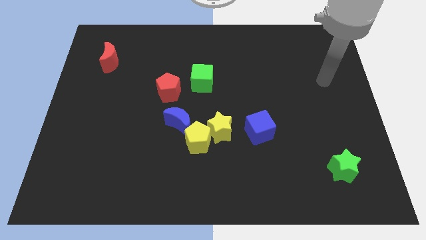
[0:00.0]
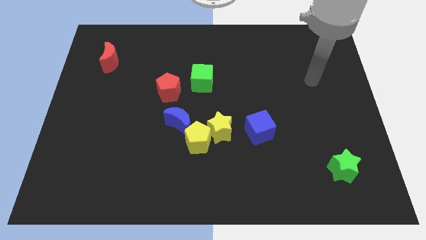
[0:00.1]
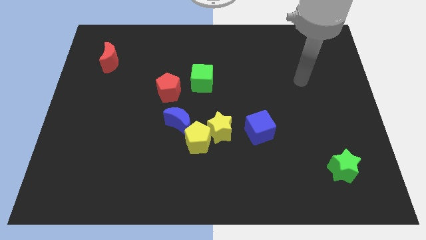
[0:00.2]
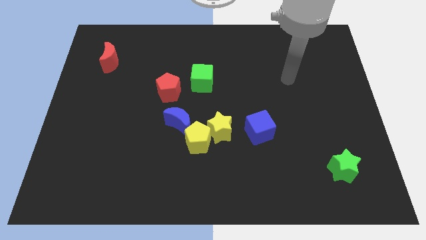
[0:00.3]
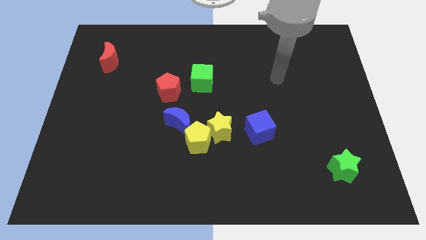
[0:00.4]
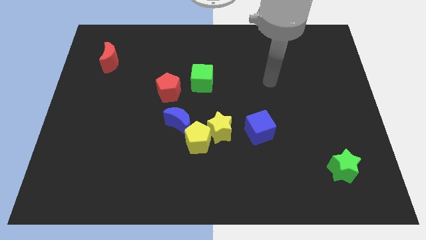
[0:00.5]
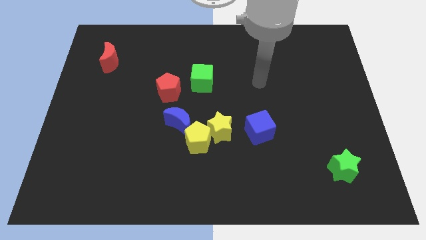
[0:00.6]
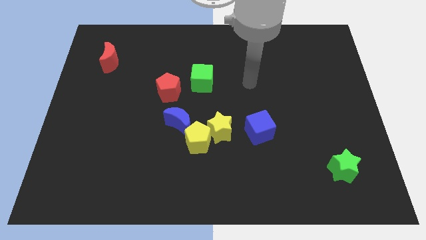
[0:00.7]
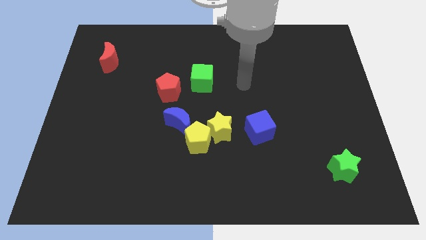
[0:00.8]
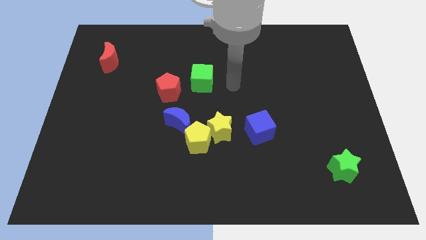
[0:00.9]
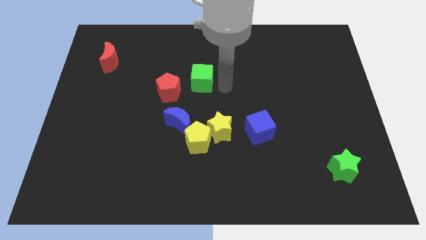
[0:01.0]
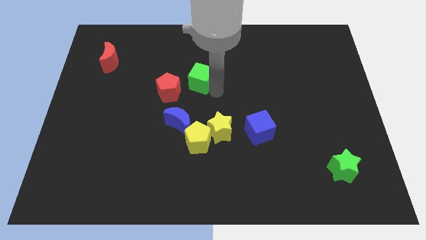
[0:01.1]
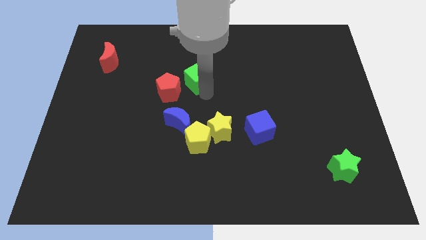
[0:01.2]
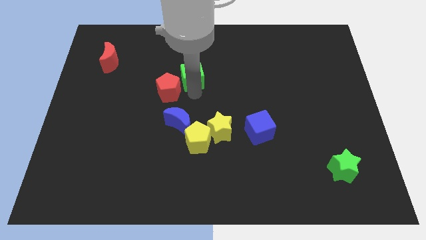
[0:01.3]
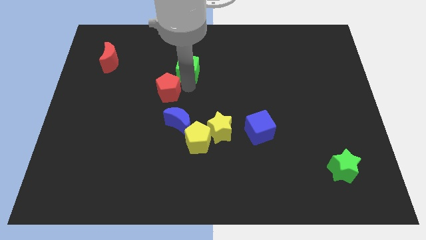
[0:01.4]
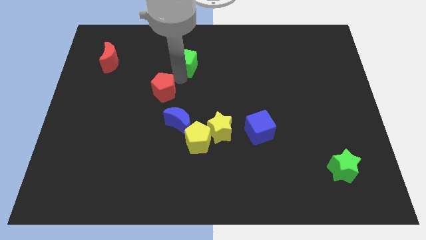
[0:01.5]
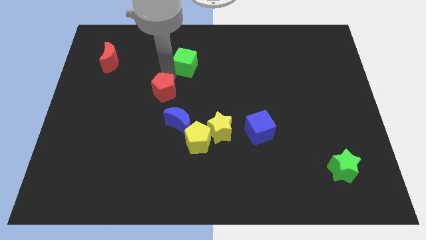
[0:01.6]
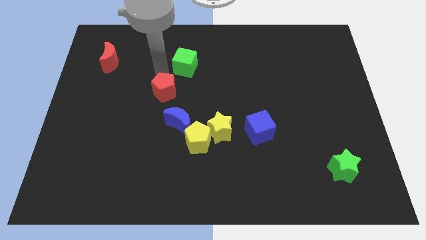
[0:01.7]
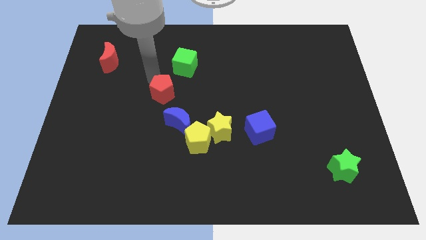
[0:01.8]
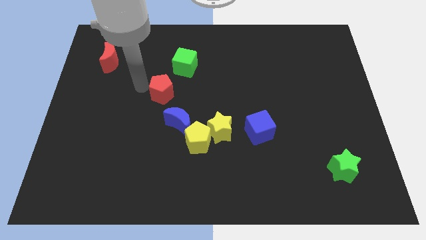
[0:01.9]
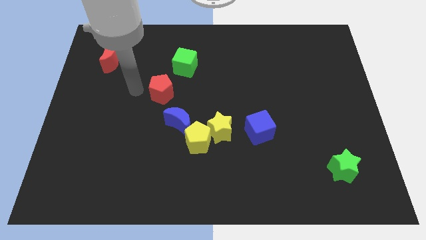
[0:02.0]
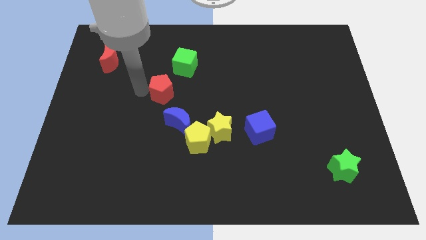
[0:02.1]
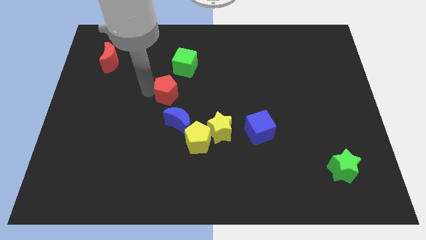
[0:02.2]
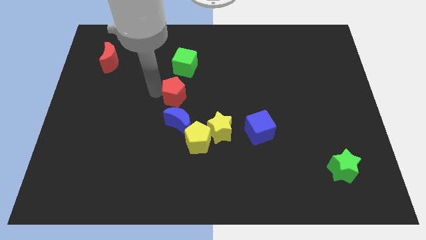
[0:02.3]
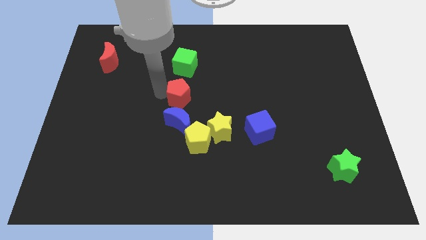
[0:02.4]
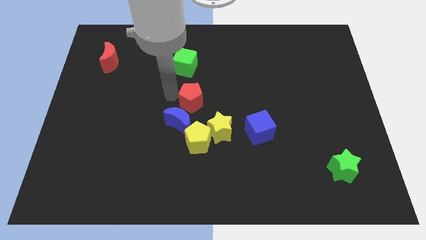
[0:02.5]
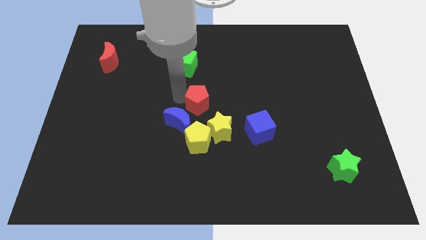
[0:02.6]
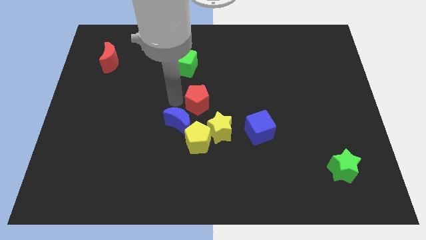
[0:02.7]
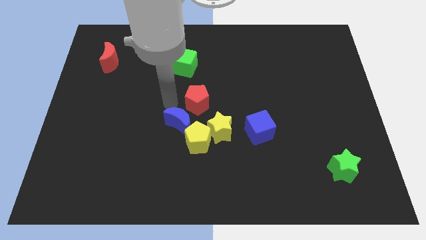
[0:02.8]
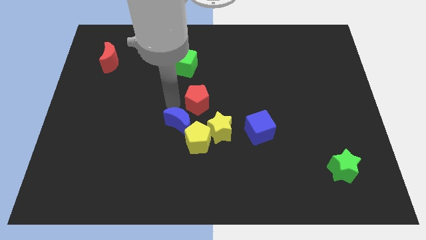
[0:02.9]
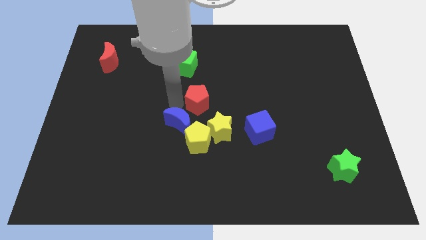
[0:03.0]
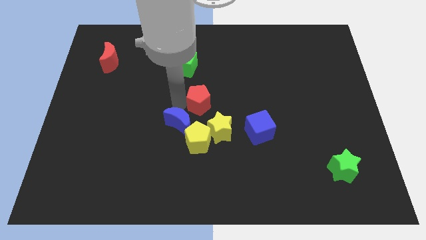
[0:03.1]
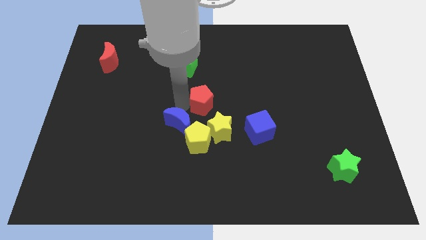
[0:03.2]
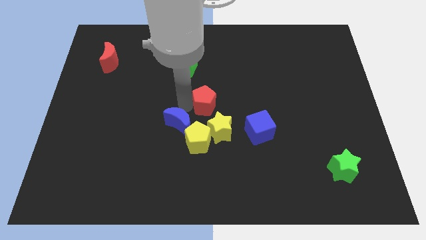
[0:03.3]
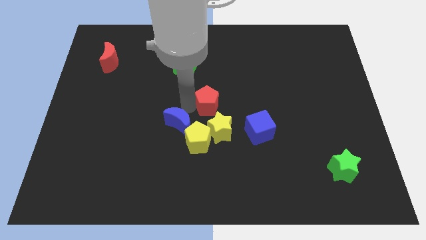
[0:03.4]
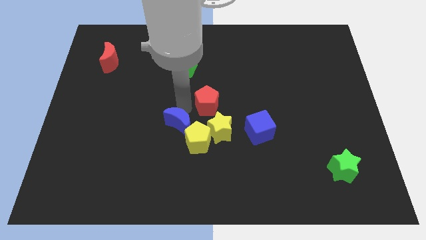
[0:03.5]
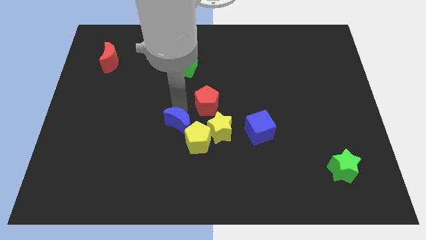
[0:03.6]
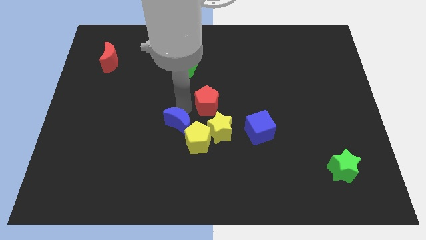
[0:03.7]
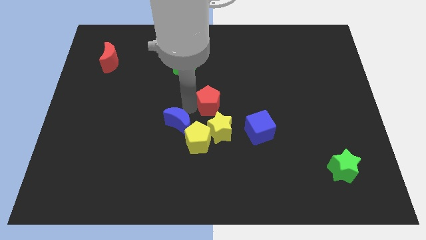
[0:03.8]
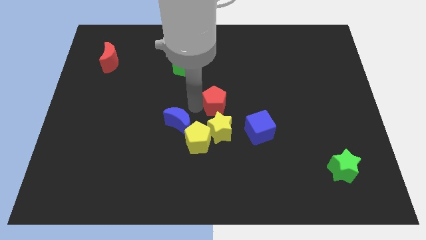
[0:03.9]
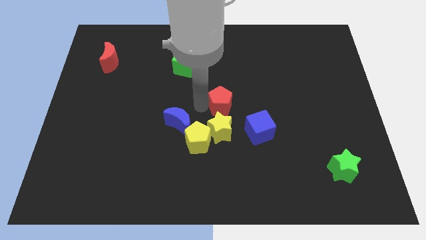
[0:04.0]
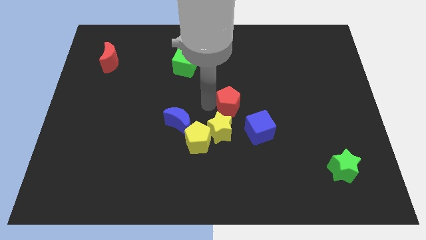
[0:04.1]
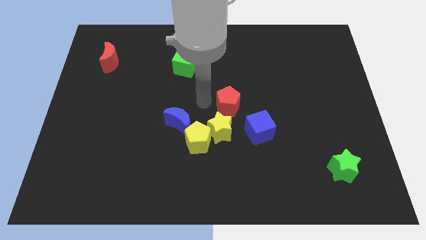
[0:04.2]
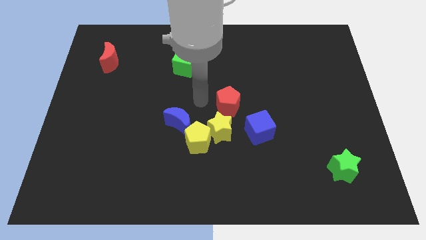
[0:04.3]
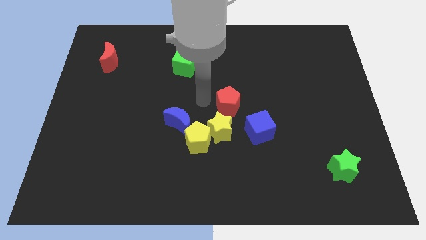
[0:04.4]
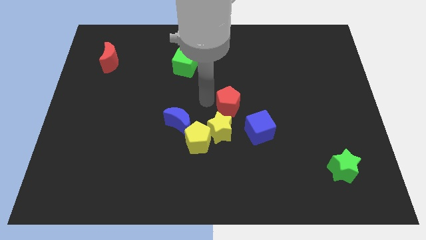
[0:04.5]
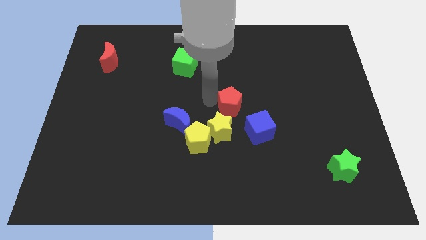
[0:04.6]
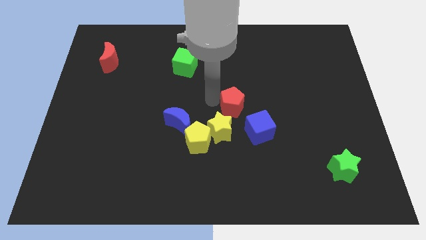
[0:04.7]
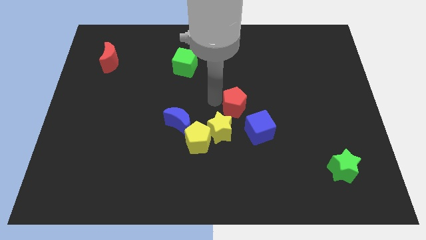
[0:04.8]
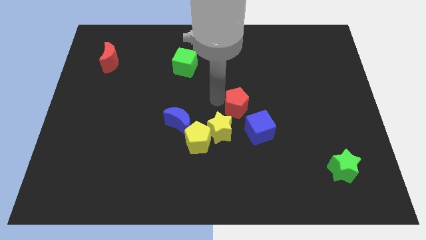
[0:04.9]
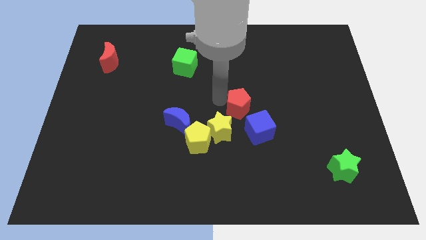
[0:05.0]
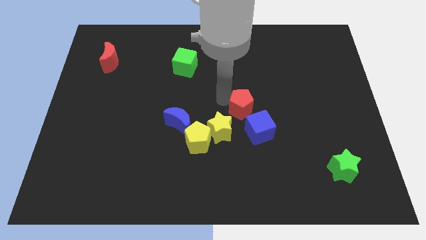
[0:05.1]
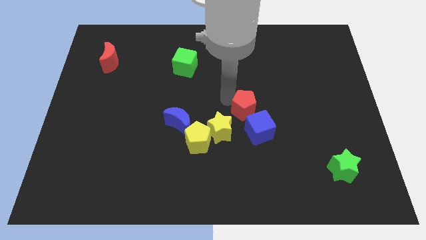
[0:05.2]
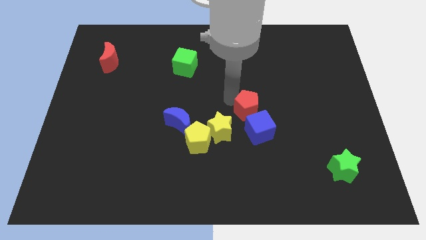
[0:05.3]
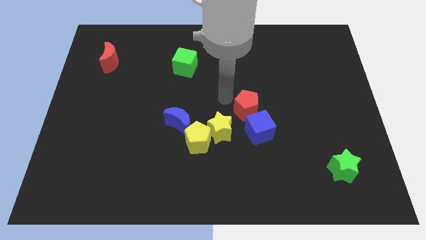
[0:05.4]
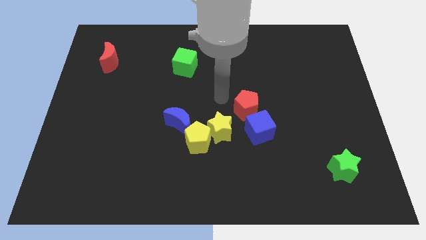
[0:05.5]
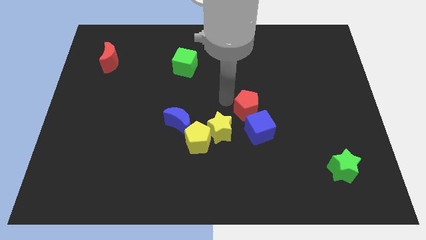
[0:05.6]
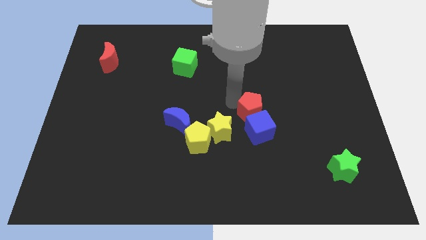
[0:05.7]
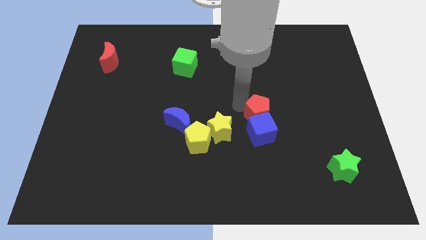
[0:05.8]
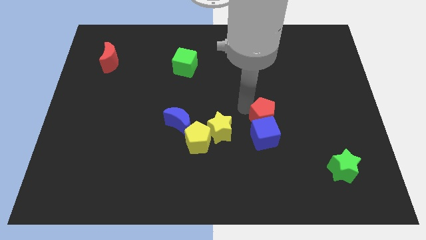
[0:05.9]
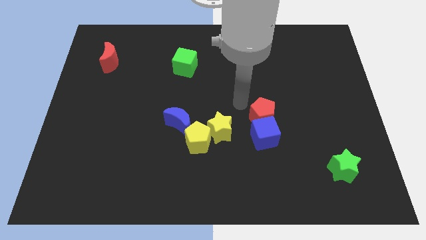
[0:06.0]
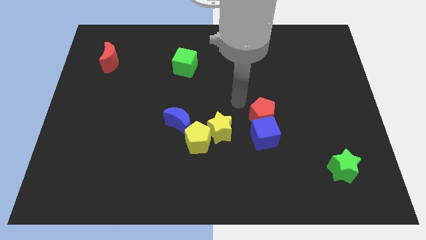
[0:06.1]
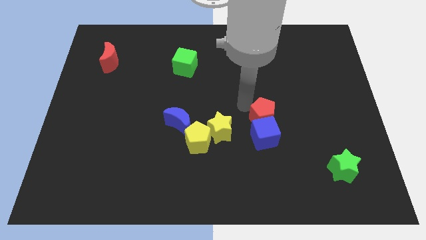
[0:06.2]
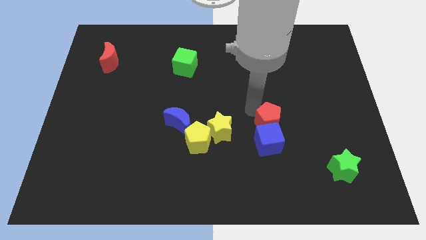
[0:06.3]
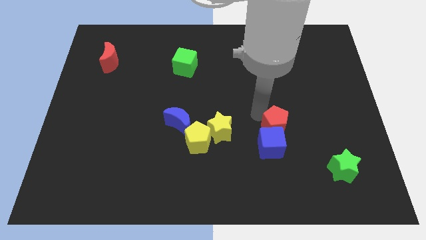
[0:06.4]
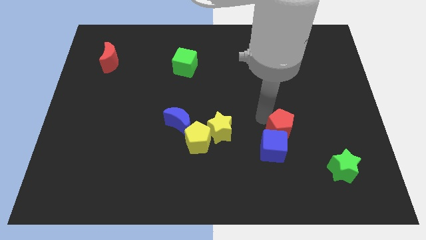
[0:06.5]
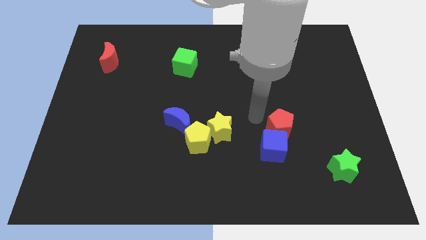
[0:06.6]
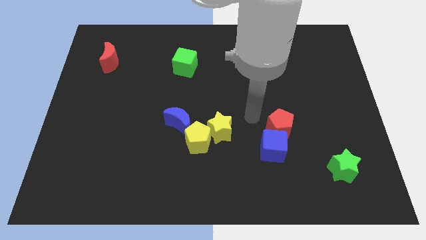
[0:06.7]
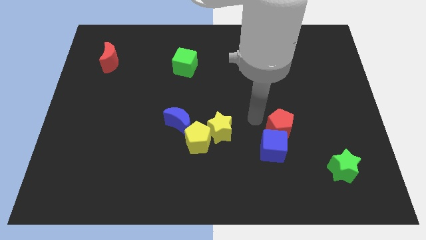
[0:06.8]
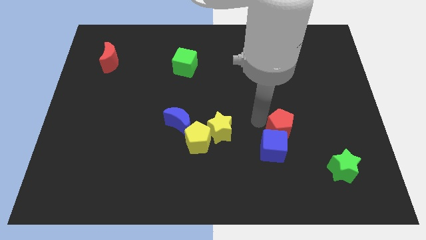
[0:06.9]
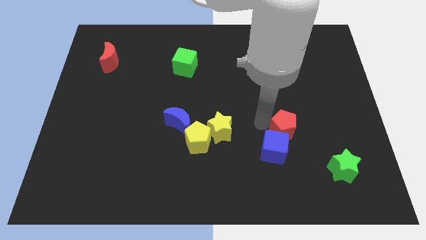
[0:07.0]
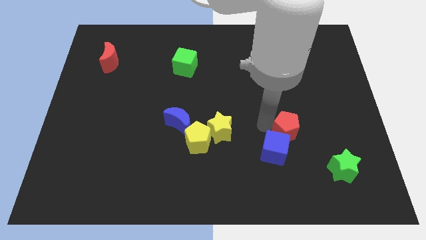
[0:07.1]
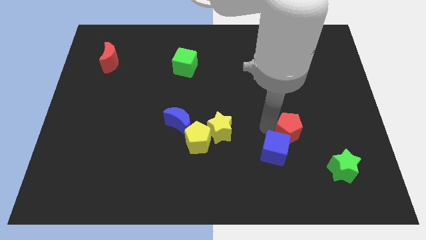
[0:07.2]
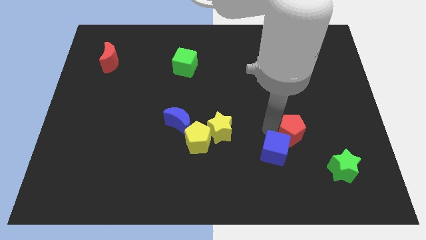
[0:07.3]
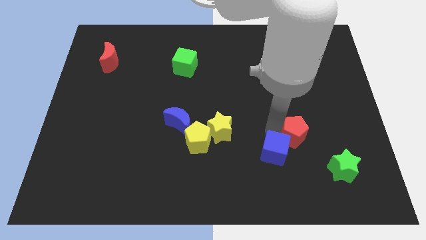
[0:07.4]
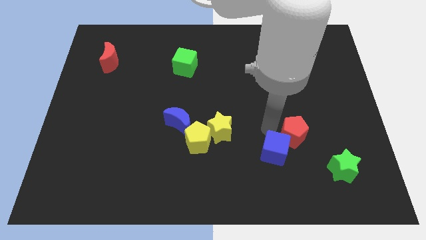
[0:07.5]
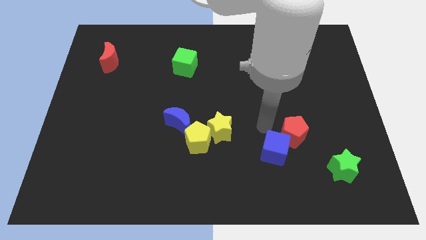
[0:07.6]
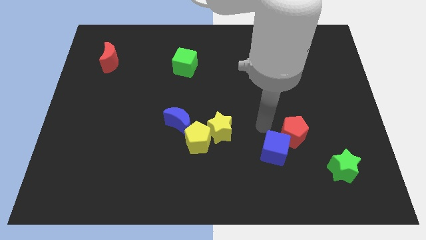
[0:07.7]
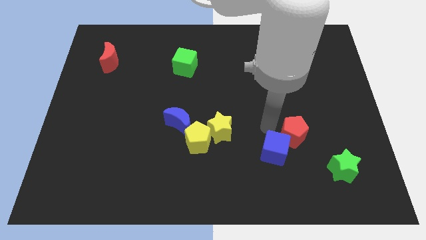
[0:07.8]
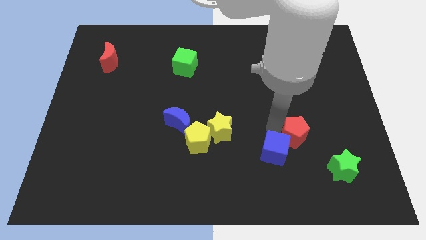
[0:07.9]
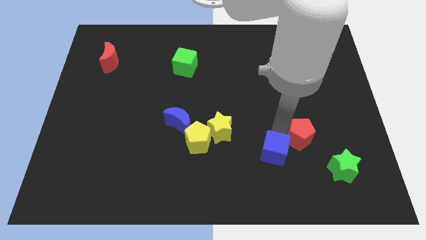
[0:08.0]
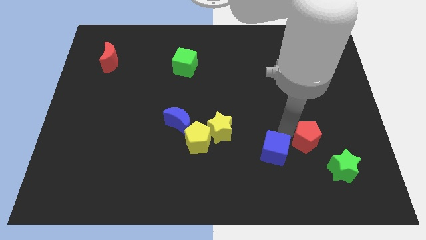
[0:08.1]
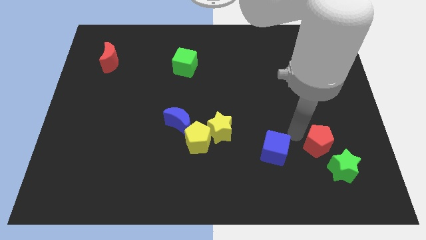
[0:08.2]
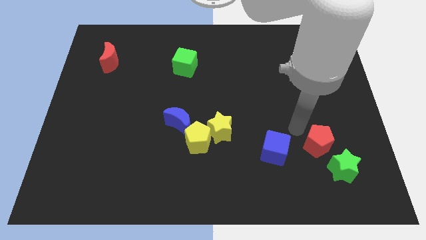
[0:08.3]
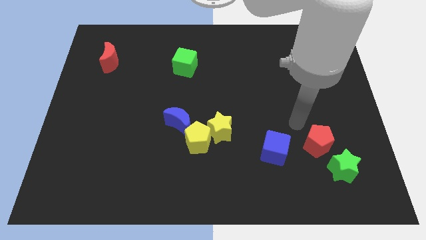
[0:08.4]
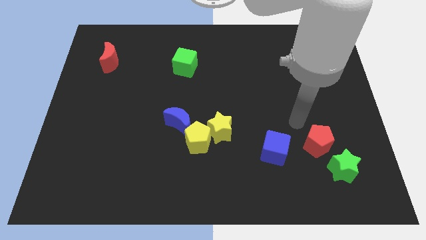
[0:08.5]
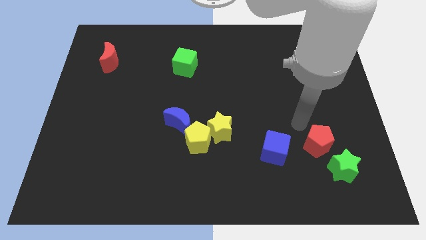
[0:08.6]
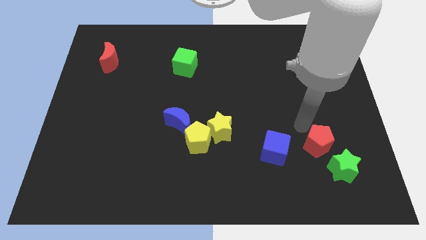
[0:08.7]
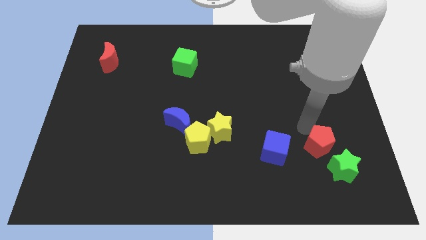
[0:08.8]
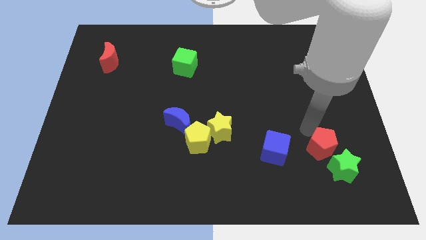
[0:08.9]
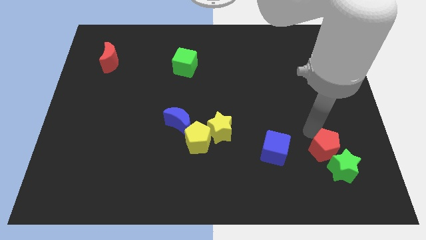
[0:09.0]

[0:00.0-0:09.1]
put the red pentagon close to the green star
